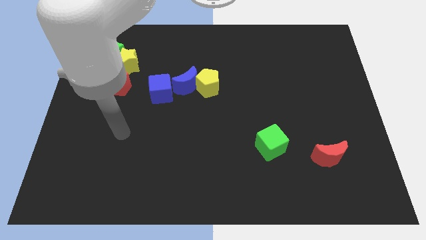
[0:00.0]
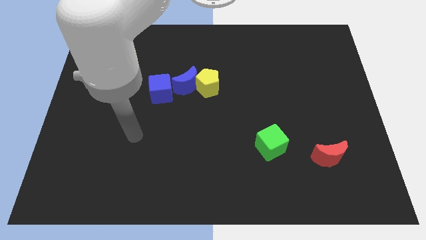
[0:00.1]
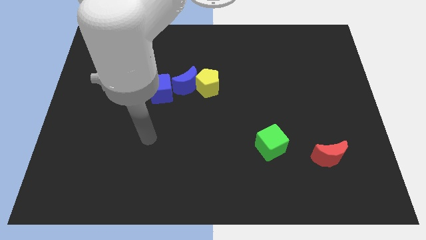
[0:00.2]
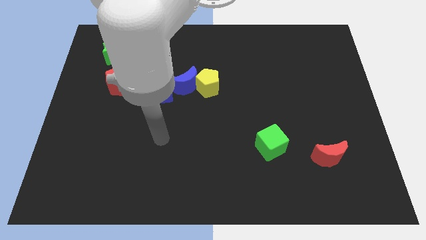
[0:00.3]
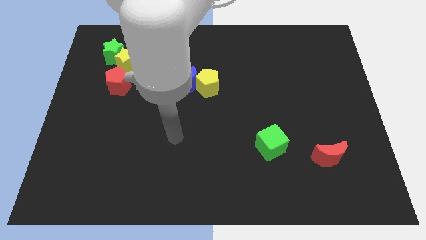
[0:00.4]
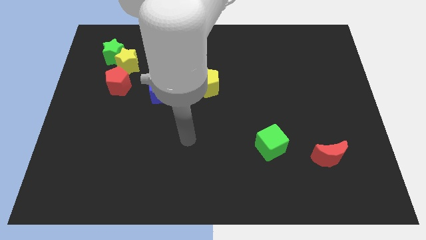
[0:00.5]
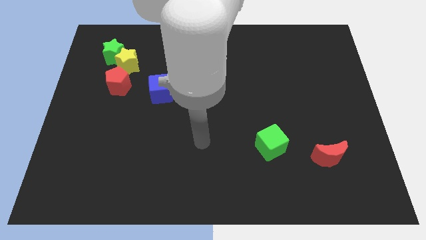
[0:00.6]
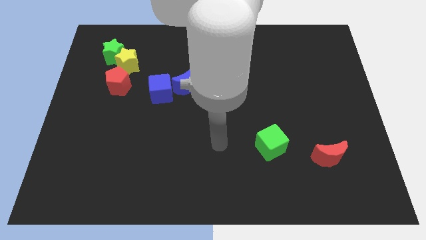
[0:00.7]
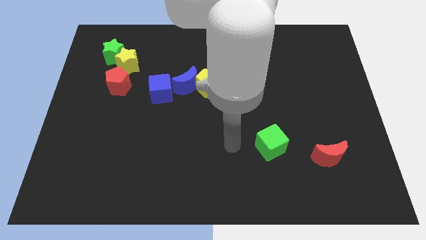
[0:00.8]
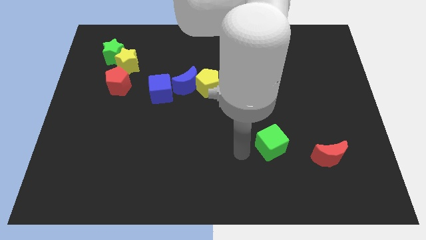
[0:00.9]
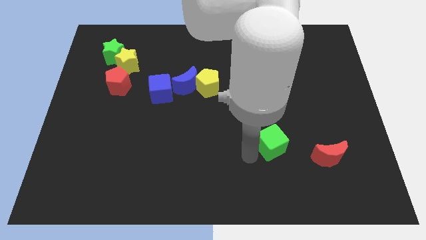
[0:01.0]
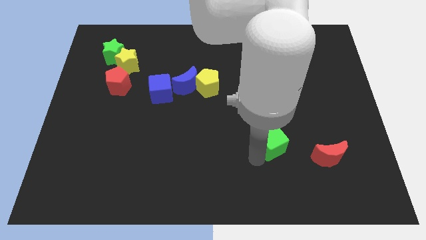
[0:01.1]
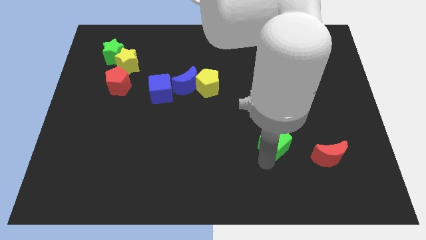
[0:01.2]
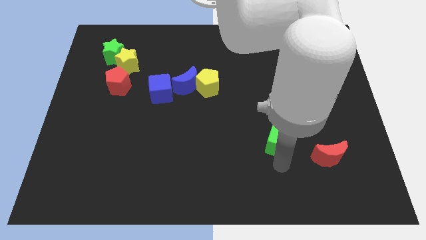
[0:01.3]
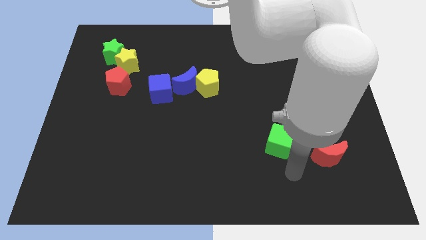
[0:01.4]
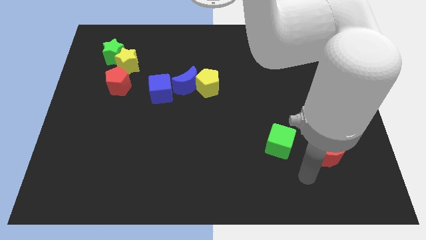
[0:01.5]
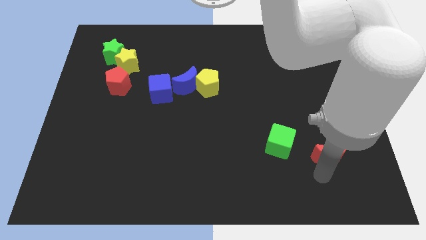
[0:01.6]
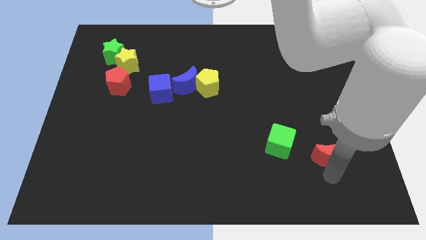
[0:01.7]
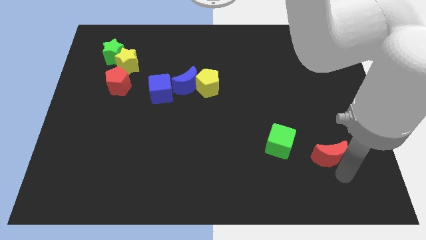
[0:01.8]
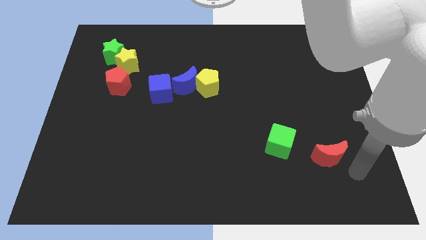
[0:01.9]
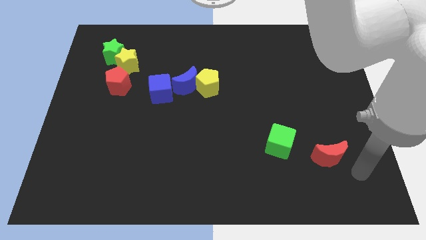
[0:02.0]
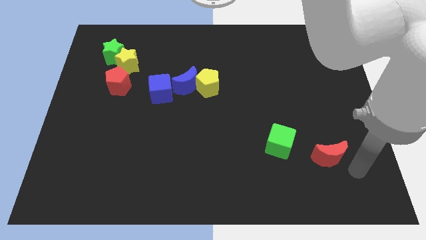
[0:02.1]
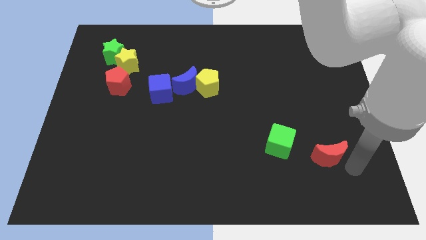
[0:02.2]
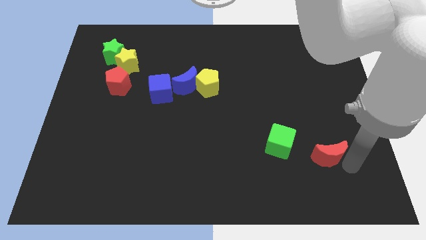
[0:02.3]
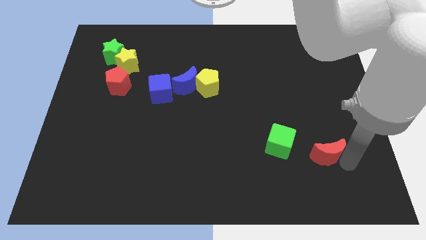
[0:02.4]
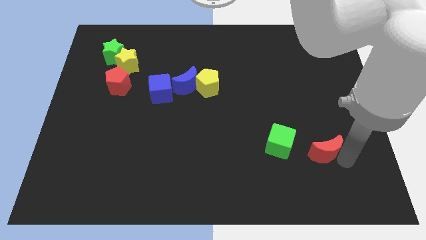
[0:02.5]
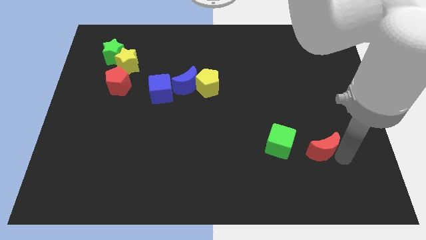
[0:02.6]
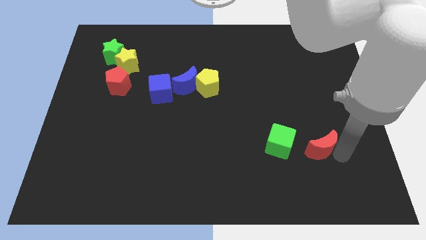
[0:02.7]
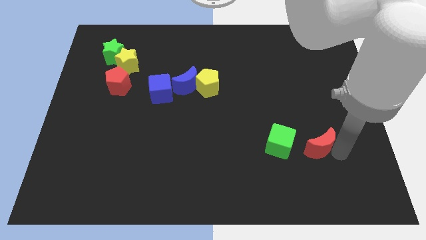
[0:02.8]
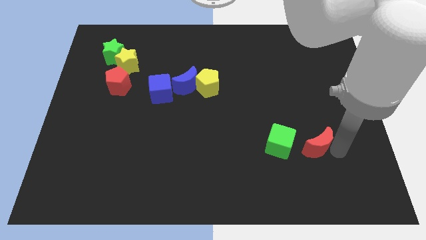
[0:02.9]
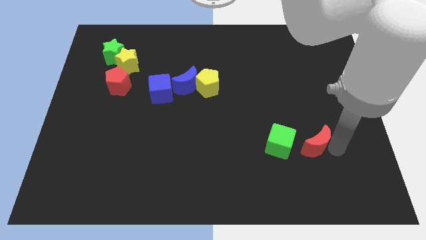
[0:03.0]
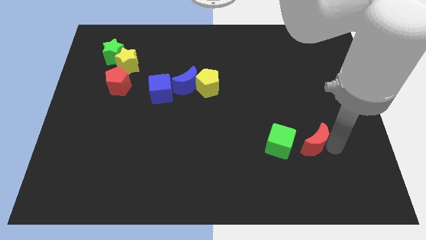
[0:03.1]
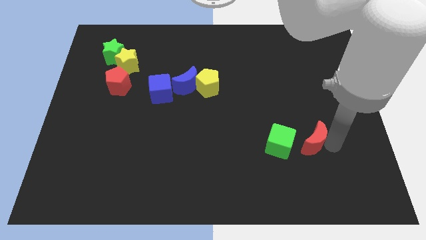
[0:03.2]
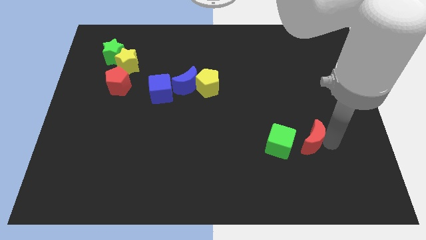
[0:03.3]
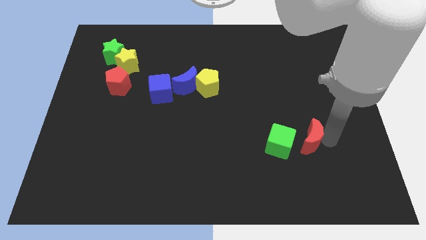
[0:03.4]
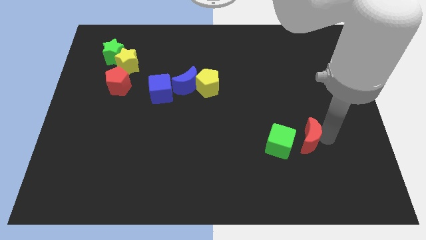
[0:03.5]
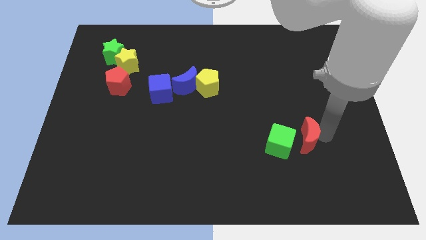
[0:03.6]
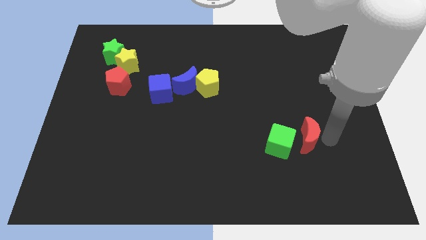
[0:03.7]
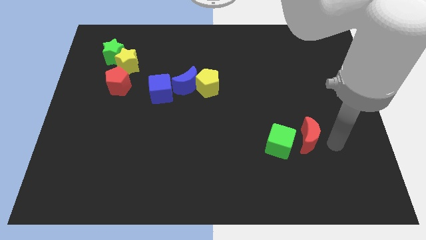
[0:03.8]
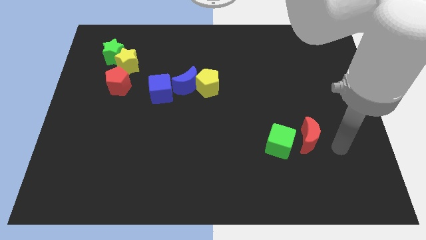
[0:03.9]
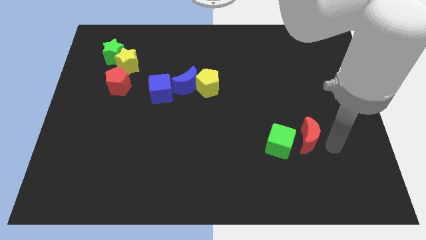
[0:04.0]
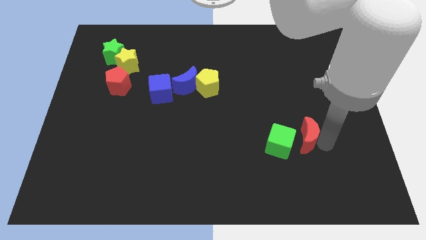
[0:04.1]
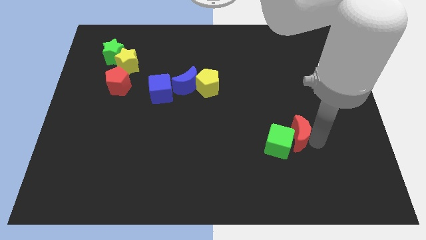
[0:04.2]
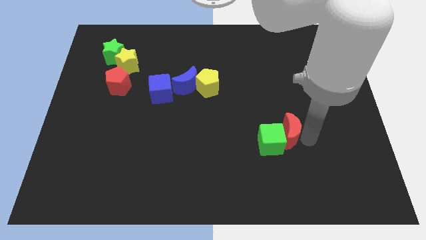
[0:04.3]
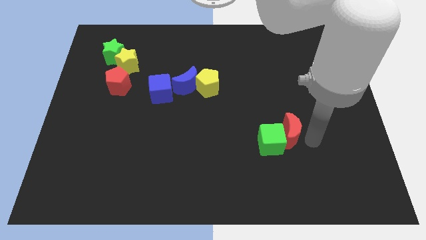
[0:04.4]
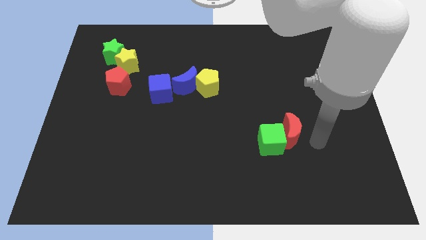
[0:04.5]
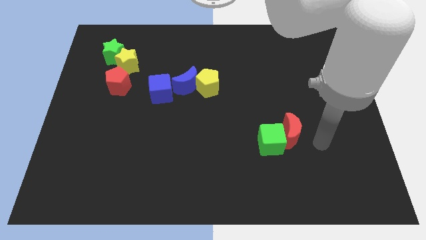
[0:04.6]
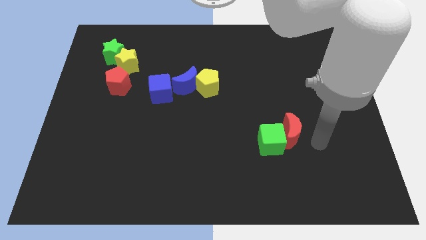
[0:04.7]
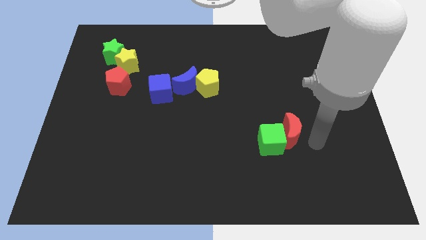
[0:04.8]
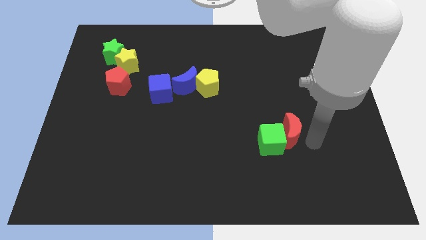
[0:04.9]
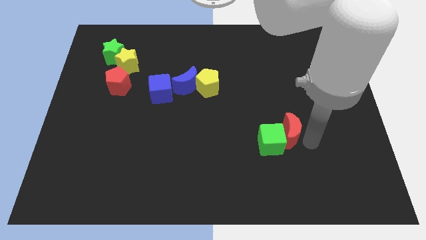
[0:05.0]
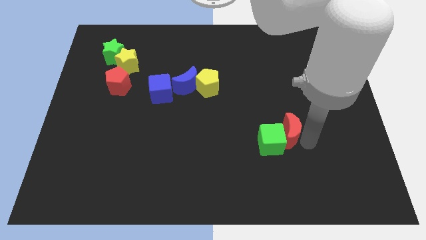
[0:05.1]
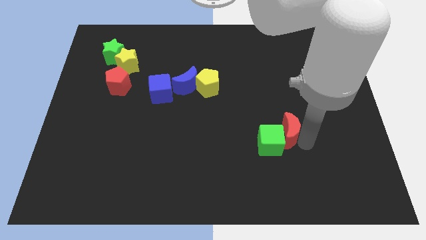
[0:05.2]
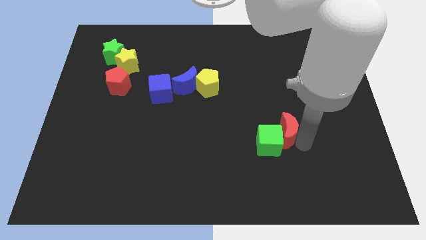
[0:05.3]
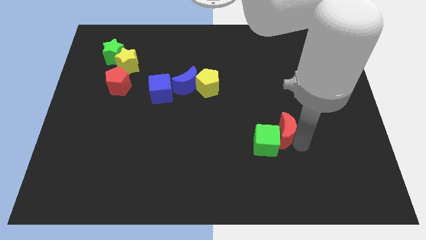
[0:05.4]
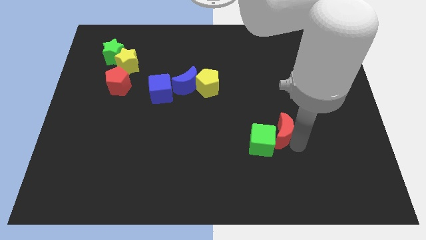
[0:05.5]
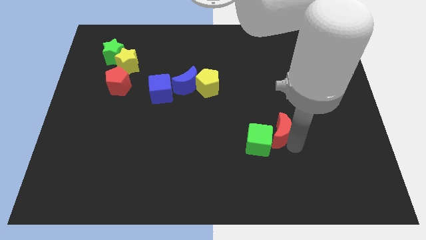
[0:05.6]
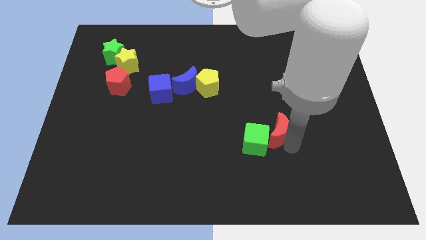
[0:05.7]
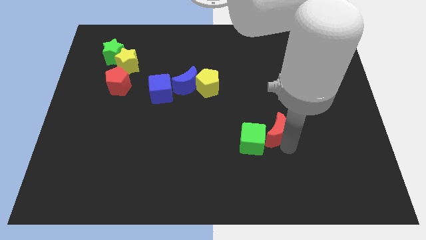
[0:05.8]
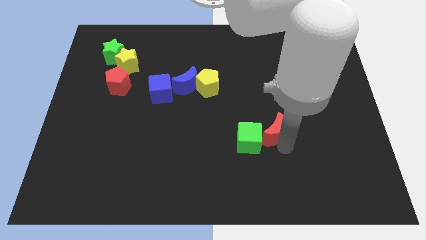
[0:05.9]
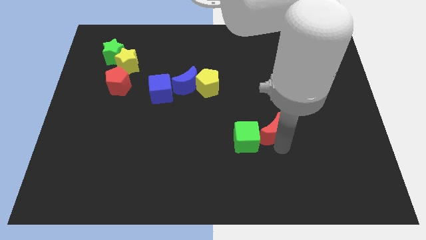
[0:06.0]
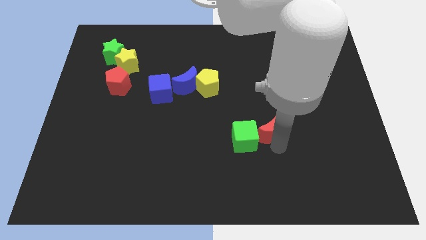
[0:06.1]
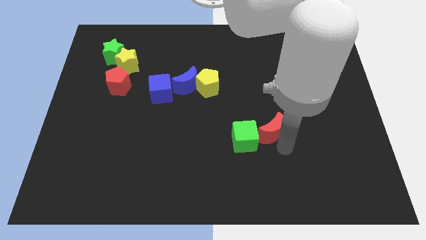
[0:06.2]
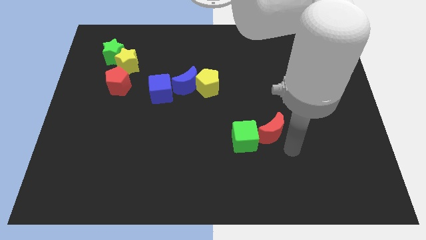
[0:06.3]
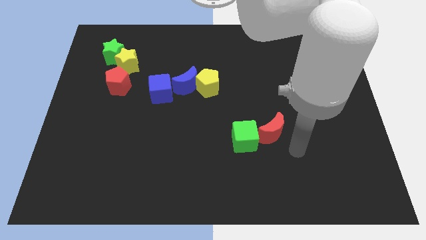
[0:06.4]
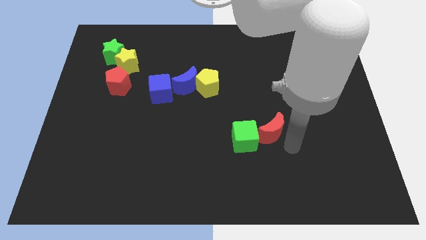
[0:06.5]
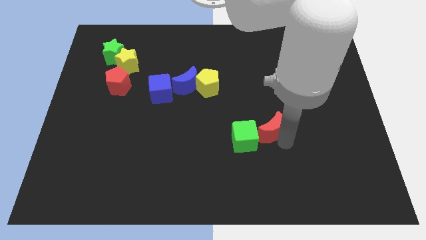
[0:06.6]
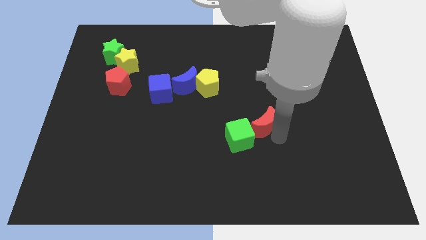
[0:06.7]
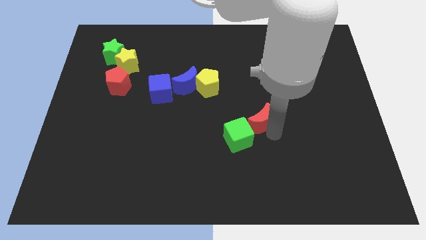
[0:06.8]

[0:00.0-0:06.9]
move the red moon to the center of the board
